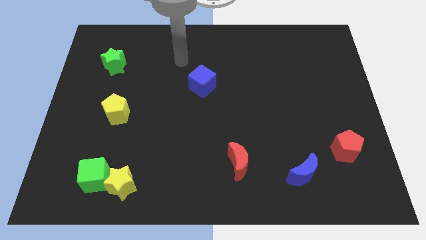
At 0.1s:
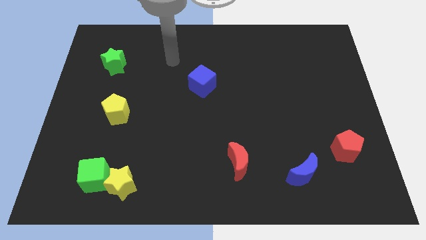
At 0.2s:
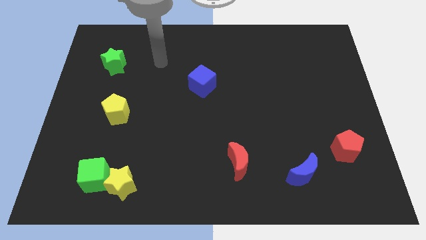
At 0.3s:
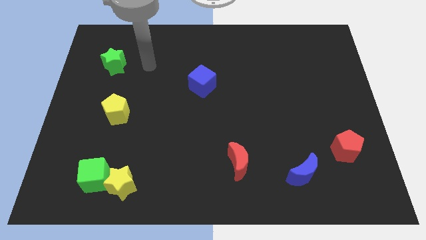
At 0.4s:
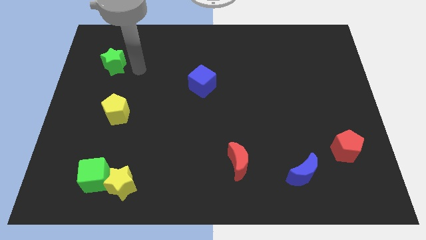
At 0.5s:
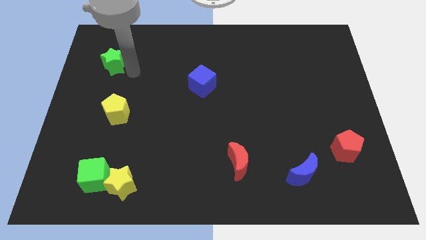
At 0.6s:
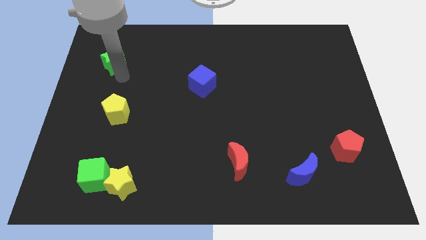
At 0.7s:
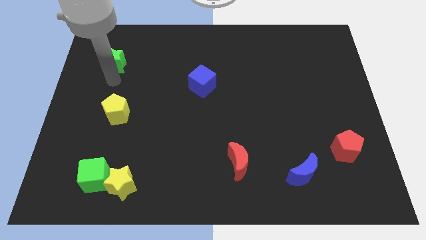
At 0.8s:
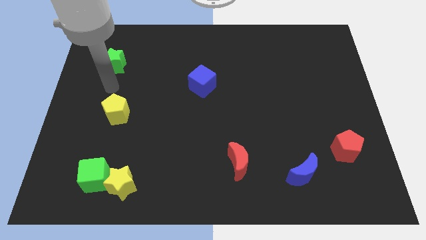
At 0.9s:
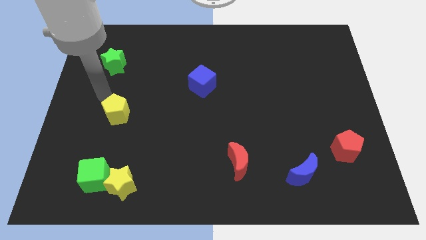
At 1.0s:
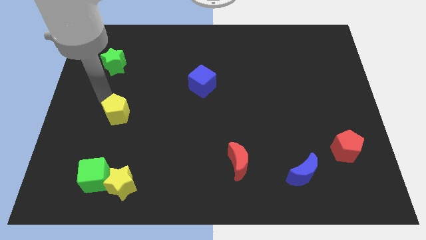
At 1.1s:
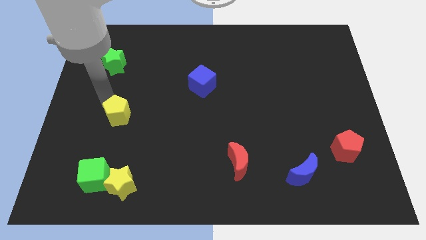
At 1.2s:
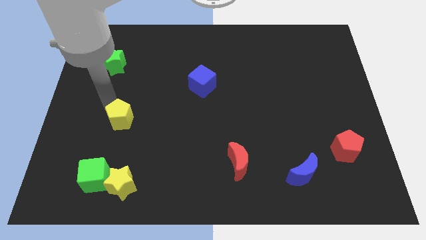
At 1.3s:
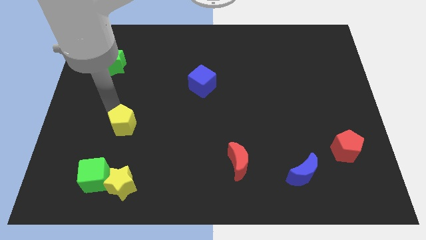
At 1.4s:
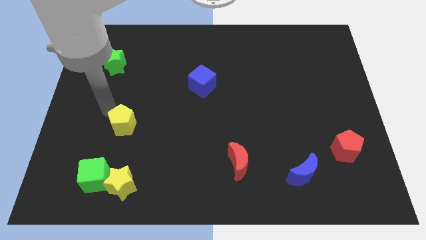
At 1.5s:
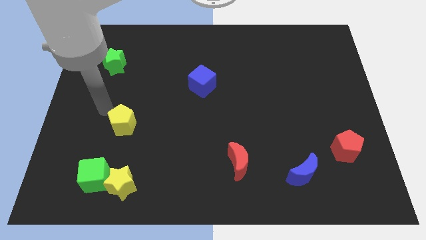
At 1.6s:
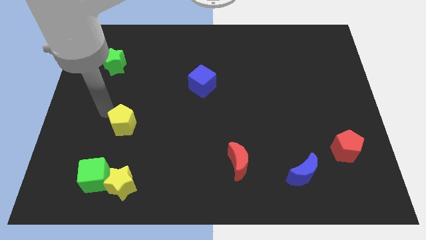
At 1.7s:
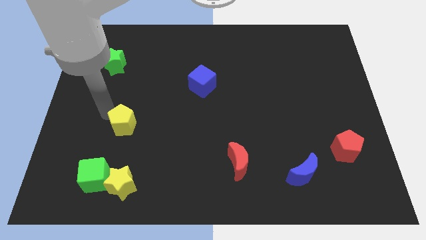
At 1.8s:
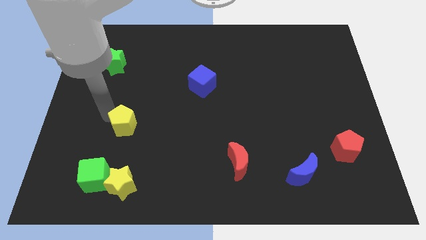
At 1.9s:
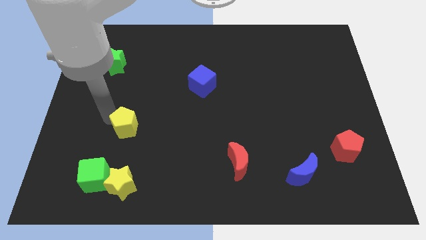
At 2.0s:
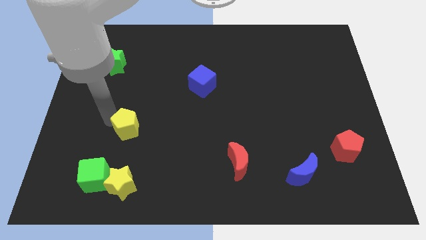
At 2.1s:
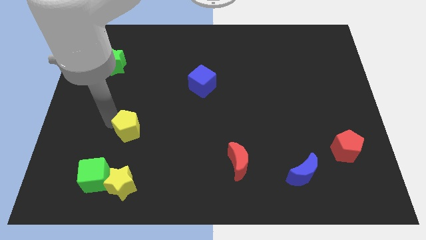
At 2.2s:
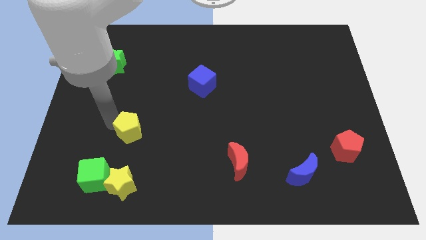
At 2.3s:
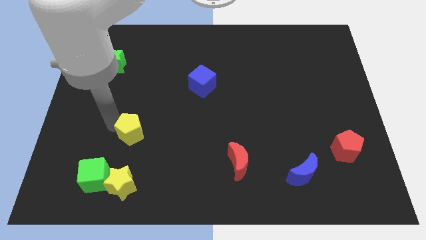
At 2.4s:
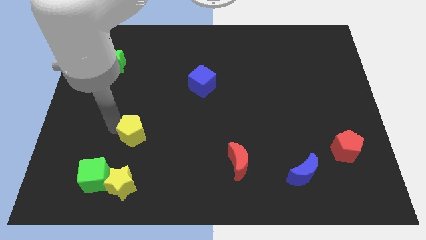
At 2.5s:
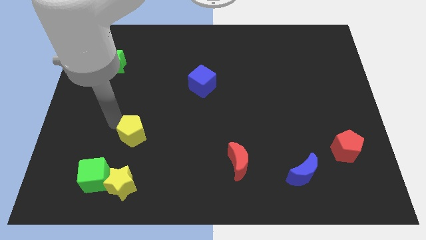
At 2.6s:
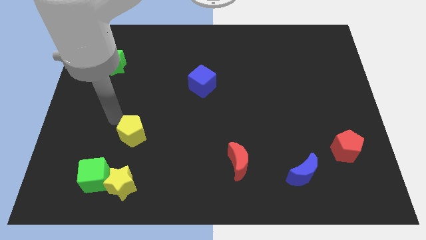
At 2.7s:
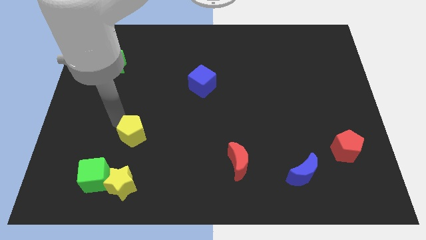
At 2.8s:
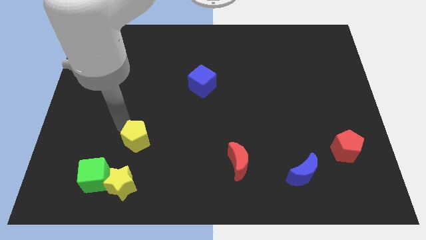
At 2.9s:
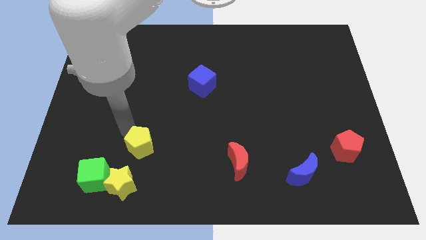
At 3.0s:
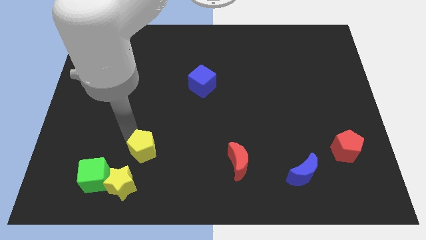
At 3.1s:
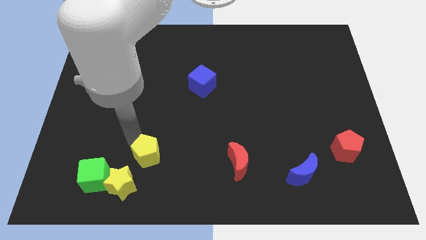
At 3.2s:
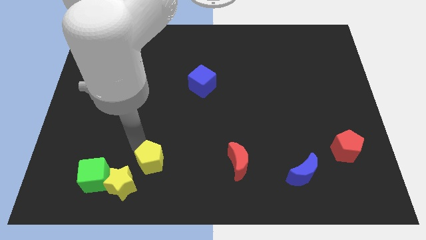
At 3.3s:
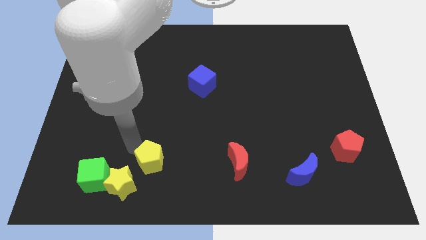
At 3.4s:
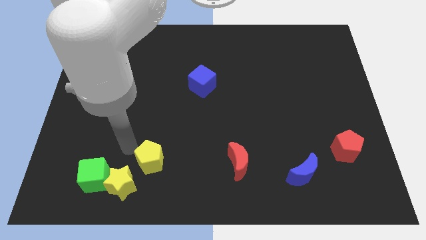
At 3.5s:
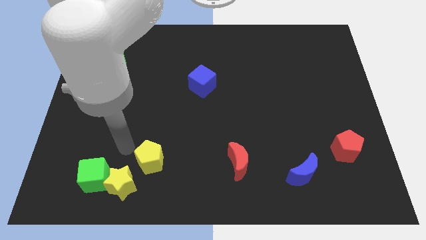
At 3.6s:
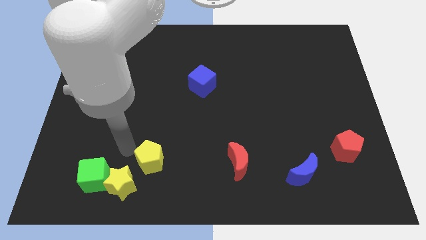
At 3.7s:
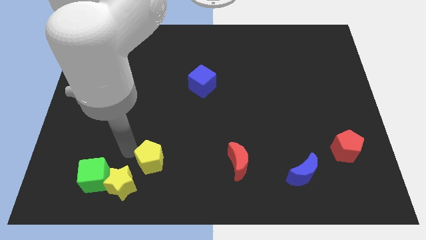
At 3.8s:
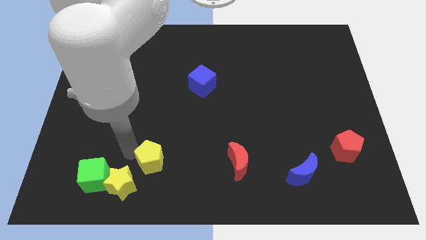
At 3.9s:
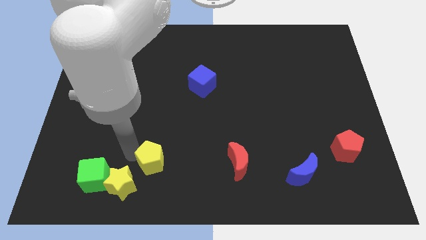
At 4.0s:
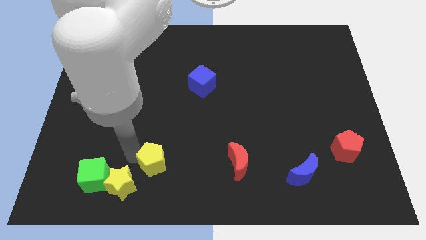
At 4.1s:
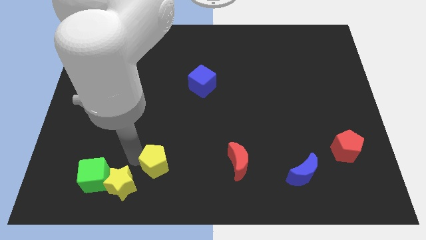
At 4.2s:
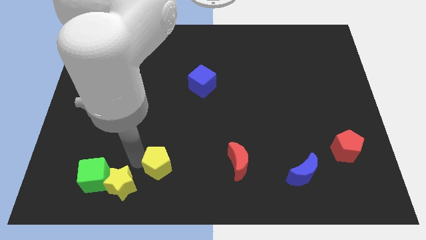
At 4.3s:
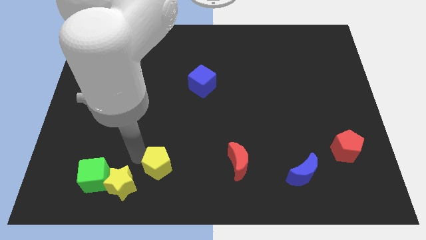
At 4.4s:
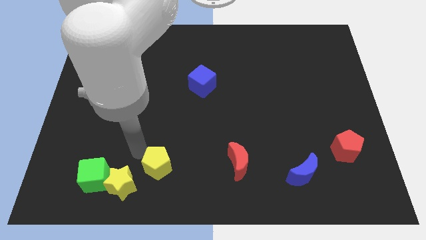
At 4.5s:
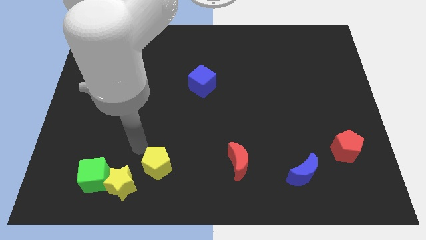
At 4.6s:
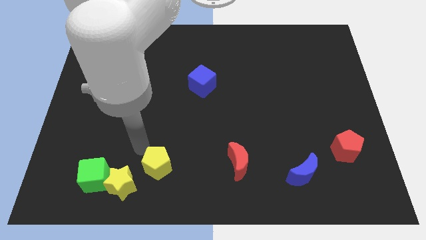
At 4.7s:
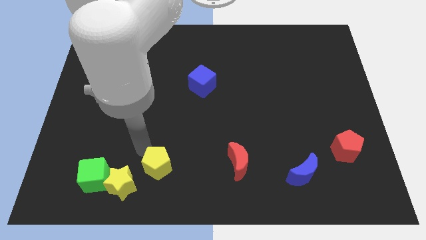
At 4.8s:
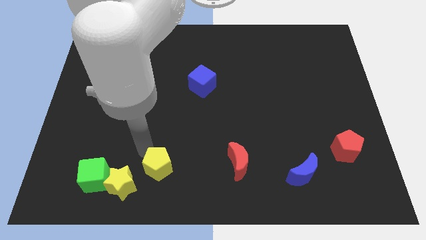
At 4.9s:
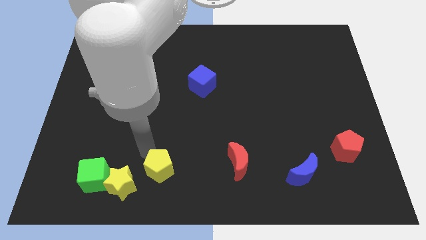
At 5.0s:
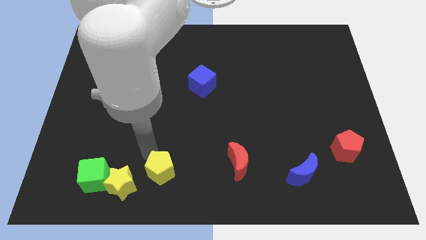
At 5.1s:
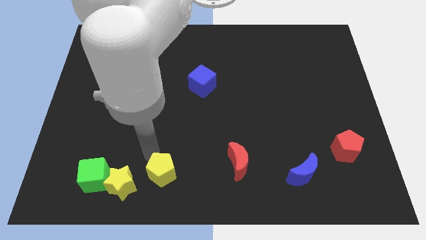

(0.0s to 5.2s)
push the yellow pentagon to the bottom

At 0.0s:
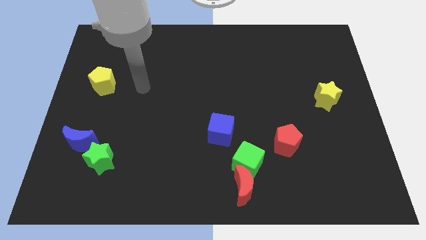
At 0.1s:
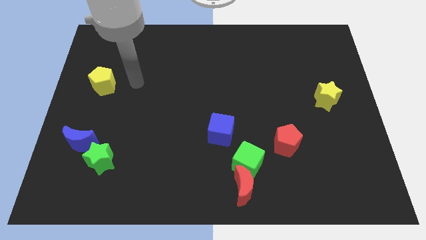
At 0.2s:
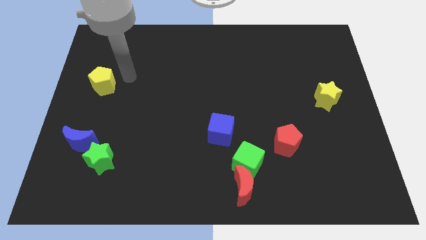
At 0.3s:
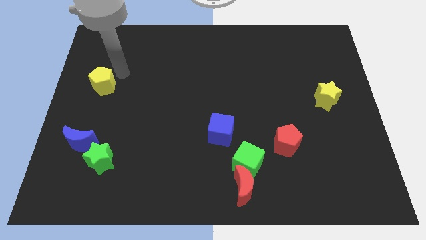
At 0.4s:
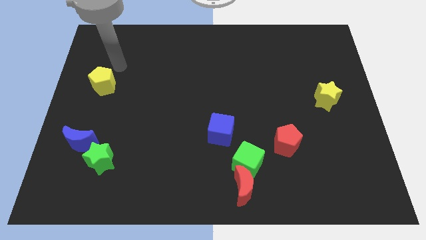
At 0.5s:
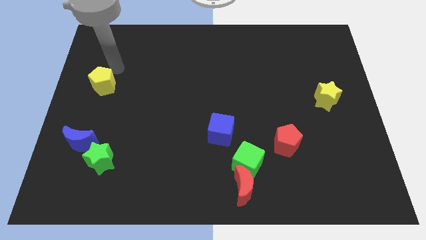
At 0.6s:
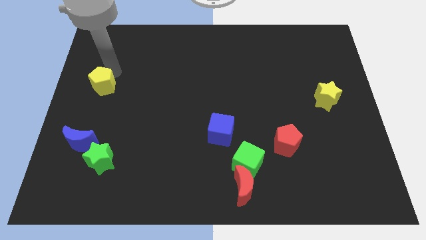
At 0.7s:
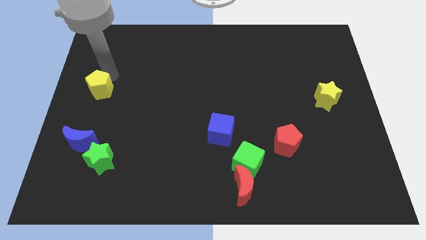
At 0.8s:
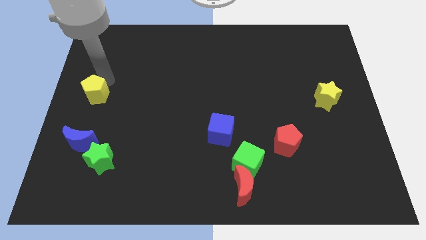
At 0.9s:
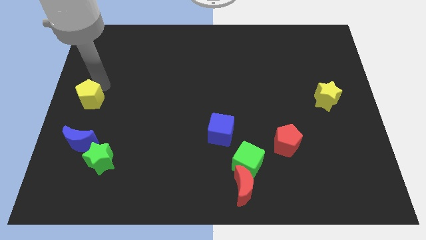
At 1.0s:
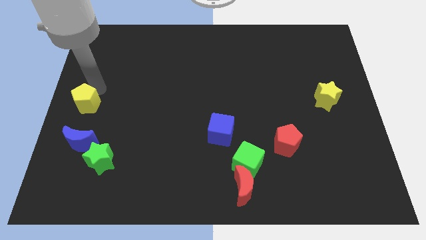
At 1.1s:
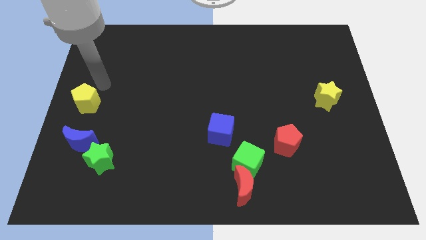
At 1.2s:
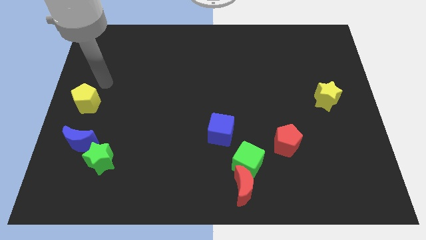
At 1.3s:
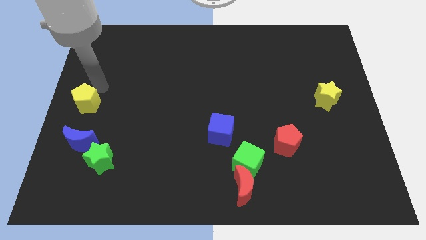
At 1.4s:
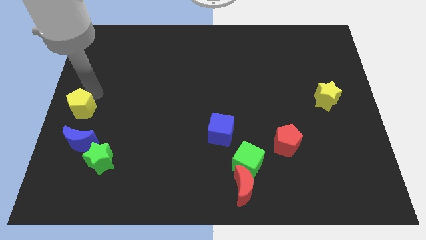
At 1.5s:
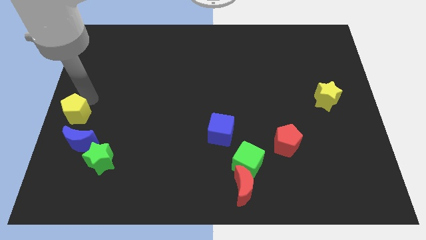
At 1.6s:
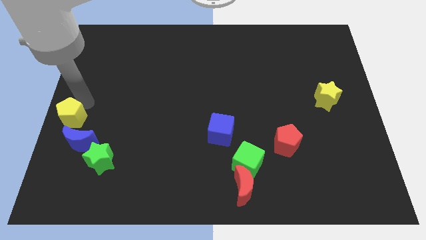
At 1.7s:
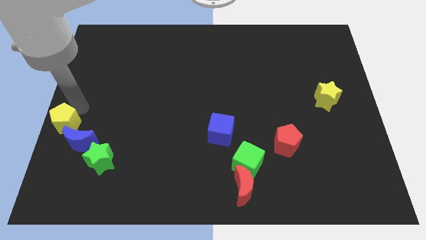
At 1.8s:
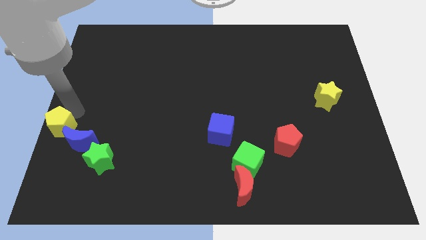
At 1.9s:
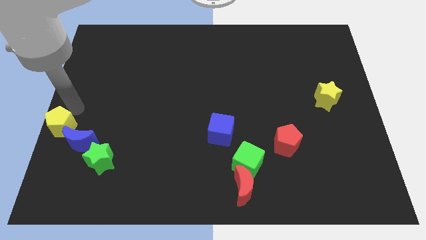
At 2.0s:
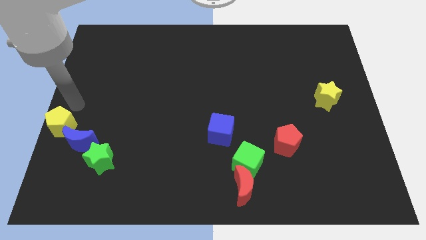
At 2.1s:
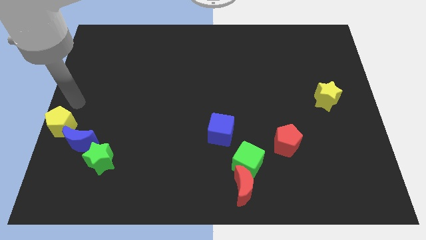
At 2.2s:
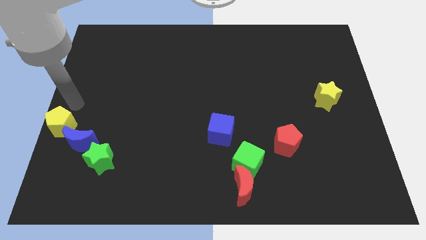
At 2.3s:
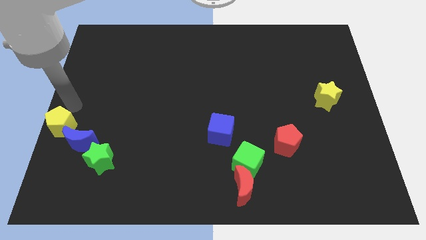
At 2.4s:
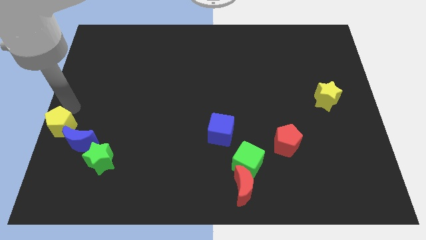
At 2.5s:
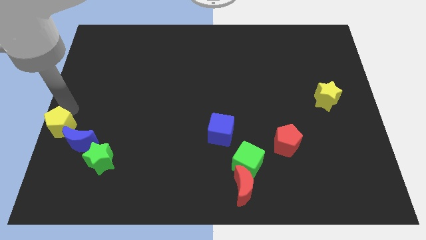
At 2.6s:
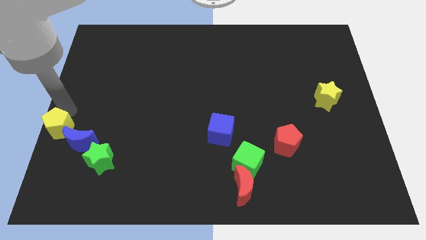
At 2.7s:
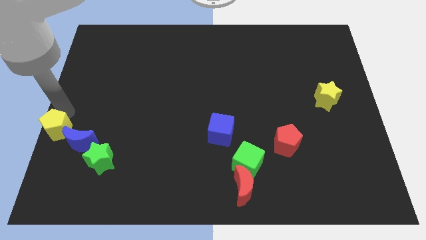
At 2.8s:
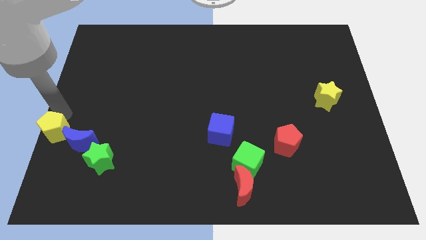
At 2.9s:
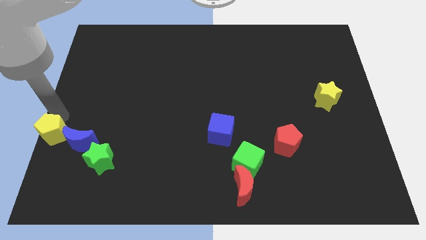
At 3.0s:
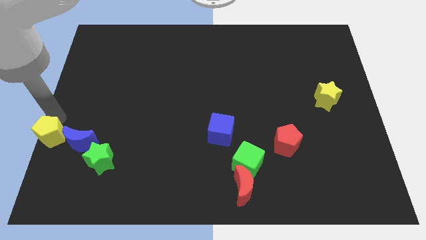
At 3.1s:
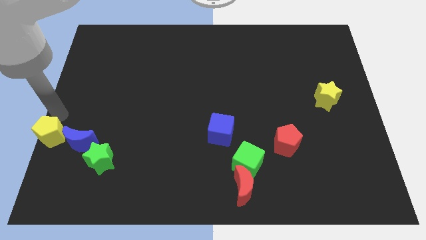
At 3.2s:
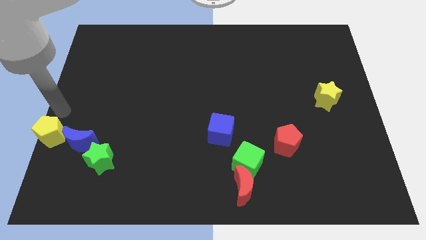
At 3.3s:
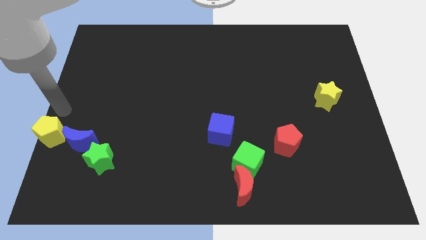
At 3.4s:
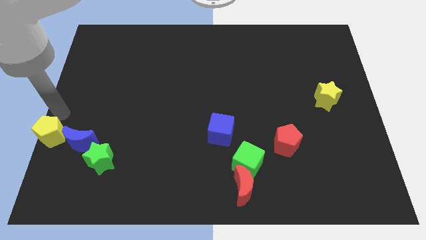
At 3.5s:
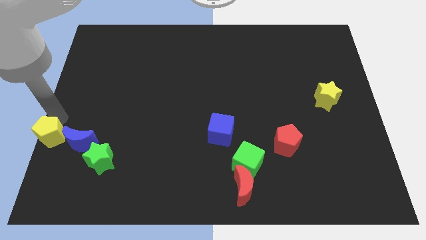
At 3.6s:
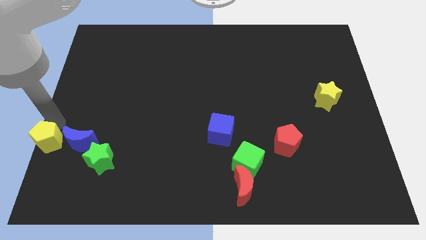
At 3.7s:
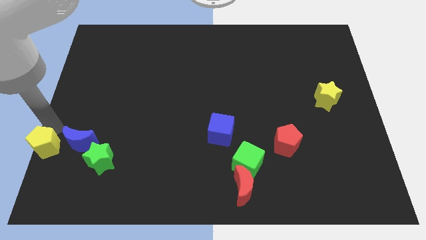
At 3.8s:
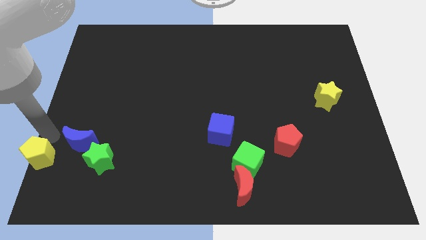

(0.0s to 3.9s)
move the yellow pentagon to the bottom left of the board
